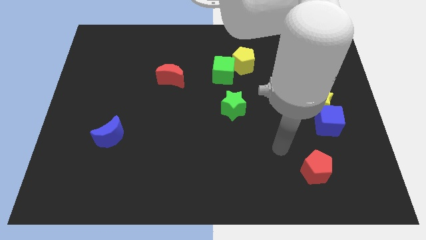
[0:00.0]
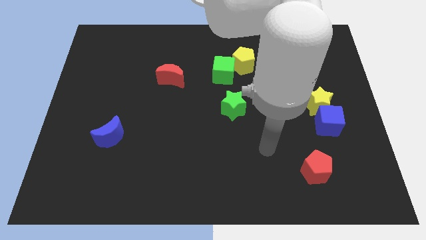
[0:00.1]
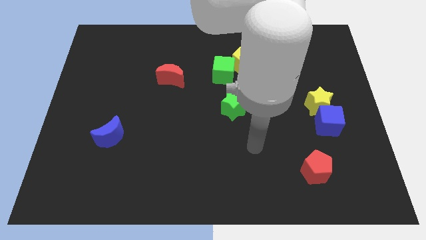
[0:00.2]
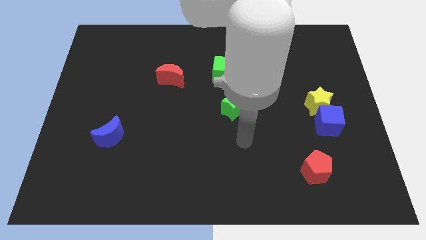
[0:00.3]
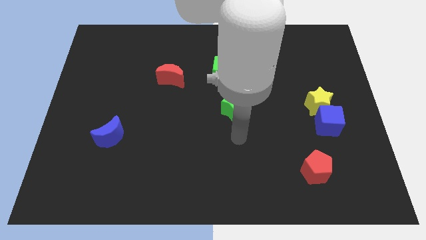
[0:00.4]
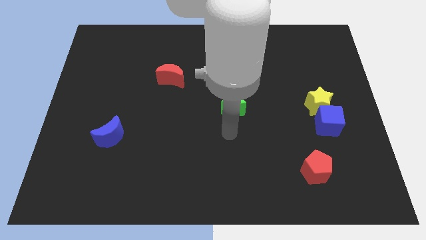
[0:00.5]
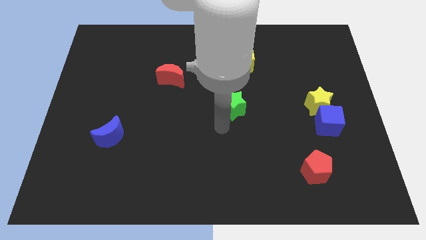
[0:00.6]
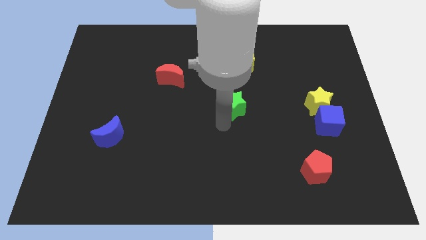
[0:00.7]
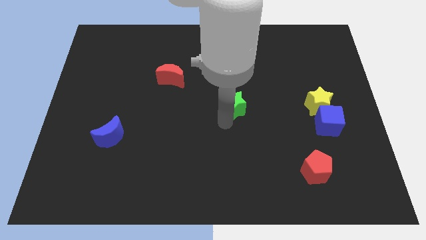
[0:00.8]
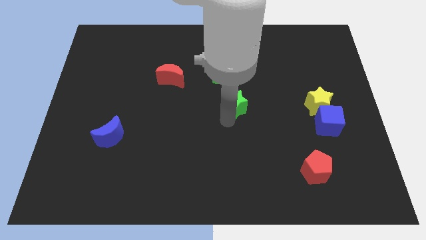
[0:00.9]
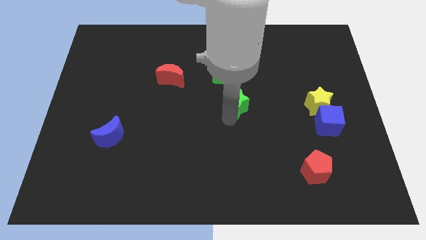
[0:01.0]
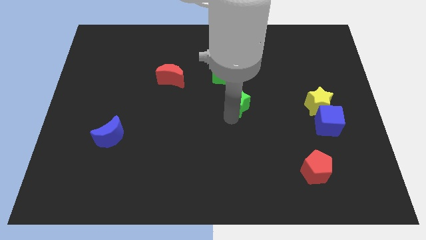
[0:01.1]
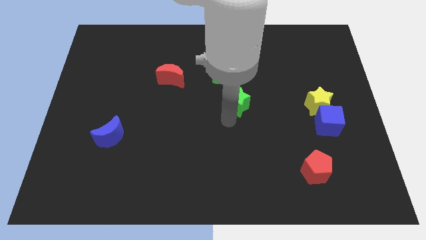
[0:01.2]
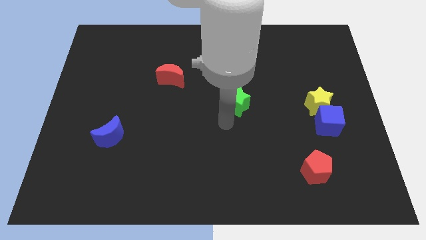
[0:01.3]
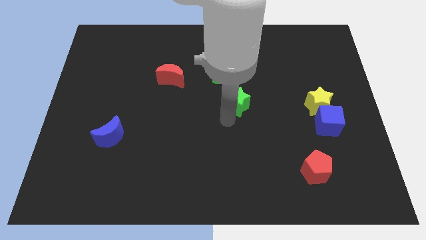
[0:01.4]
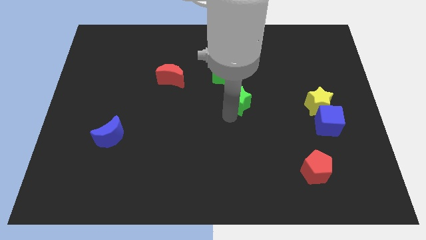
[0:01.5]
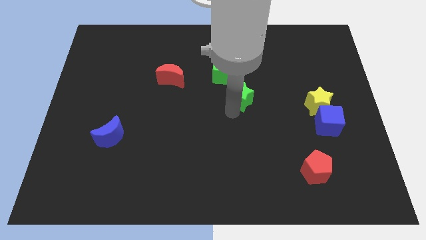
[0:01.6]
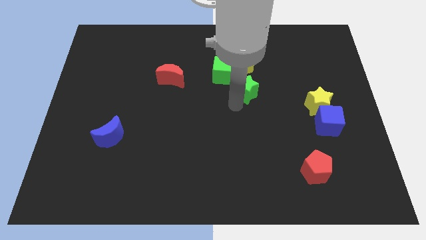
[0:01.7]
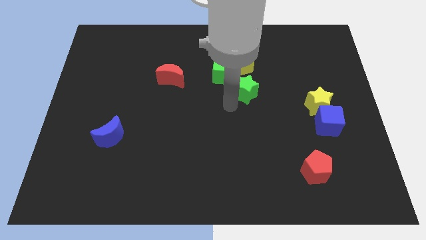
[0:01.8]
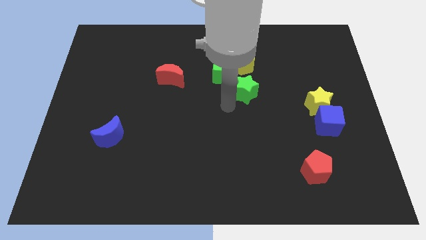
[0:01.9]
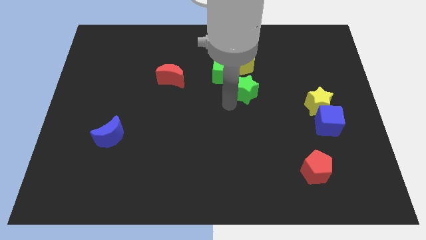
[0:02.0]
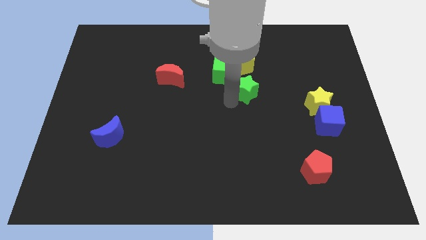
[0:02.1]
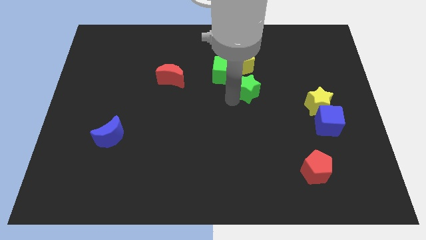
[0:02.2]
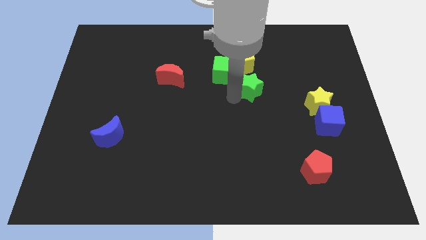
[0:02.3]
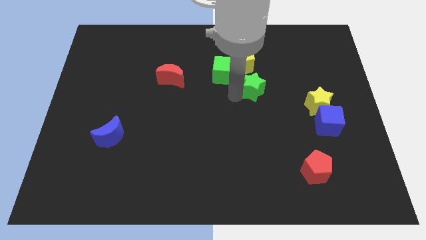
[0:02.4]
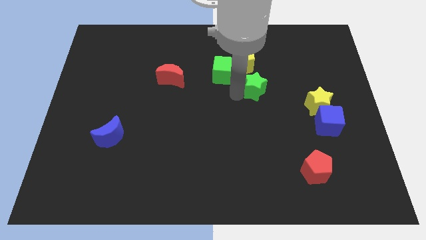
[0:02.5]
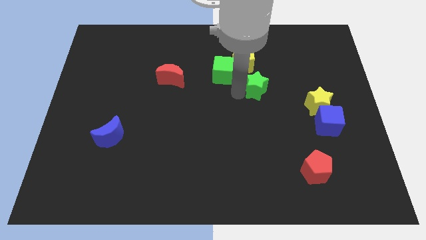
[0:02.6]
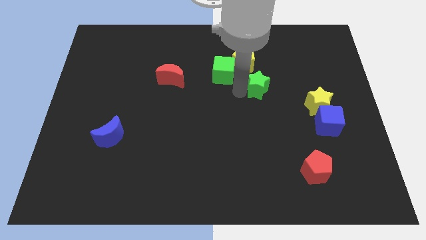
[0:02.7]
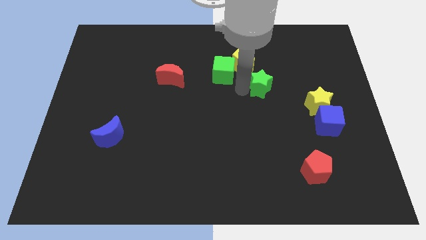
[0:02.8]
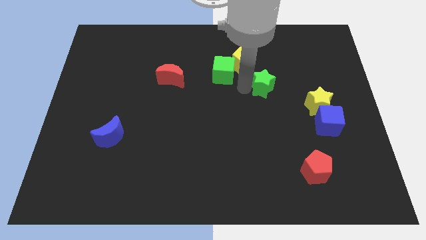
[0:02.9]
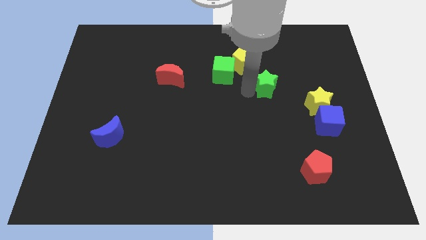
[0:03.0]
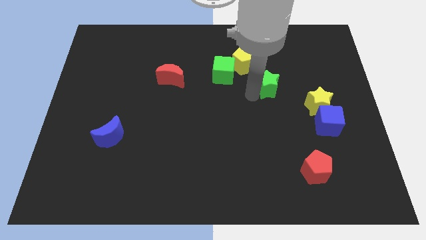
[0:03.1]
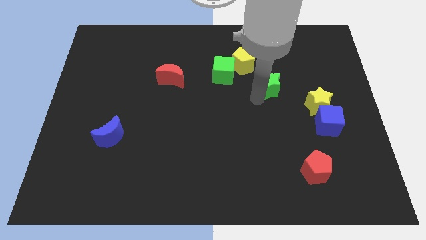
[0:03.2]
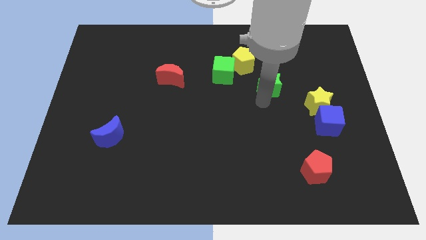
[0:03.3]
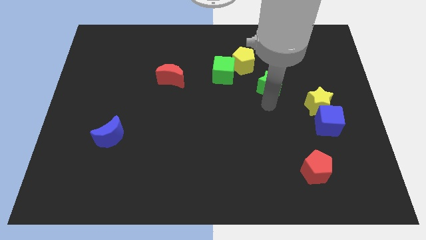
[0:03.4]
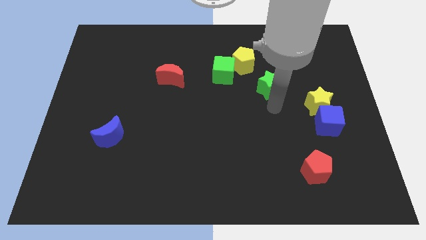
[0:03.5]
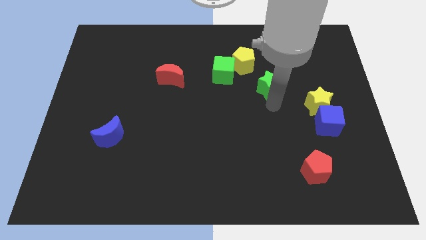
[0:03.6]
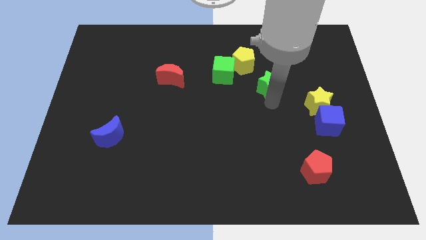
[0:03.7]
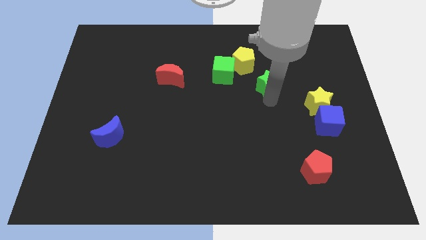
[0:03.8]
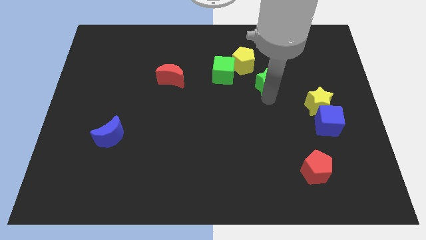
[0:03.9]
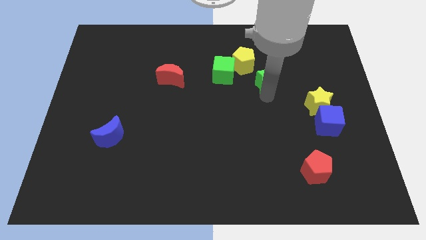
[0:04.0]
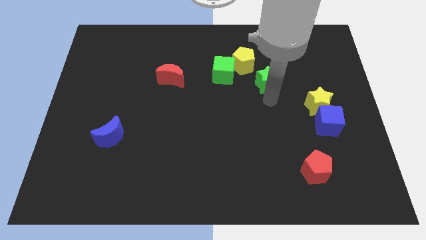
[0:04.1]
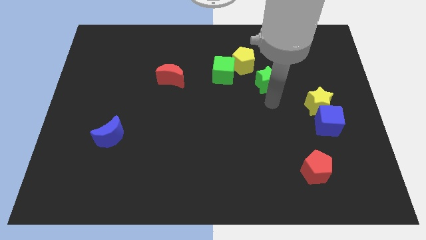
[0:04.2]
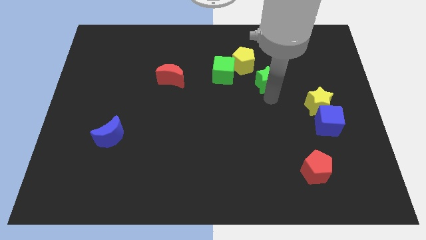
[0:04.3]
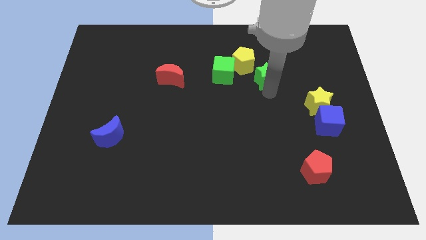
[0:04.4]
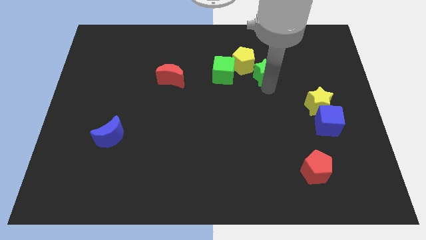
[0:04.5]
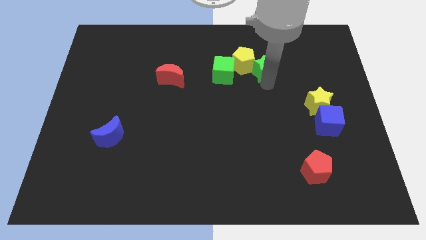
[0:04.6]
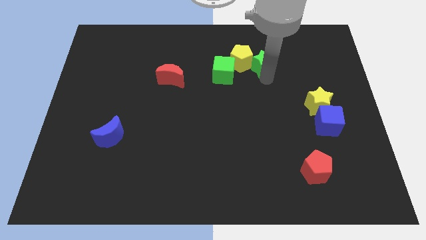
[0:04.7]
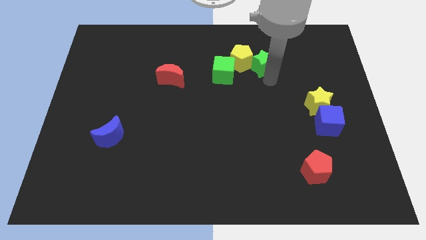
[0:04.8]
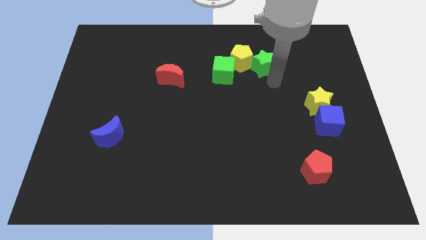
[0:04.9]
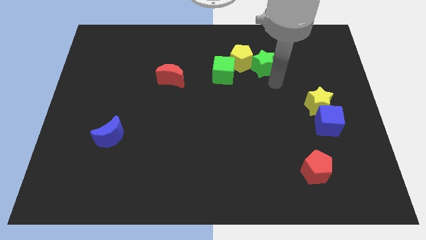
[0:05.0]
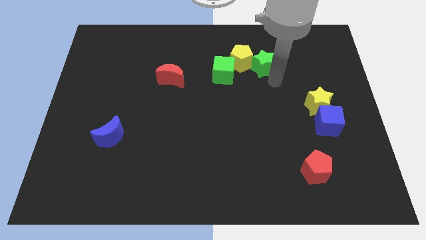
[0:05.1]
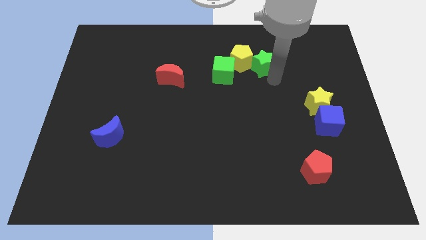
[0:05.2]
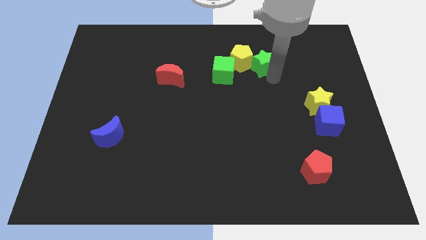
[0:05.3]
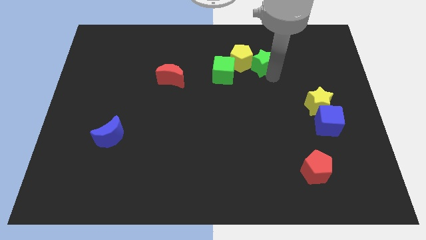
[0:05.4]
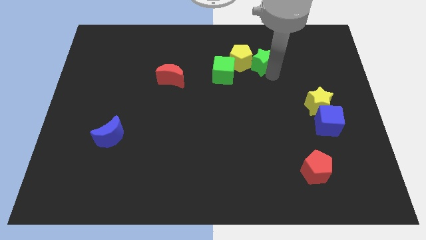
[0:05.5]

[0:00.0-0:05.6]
push the green star to the top right side of the green cube

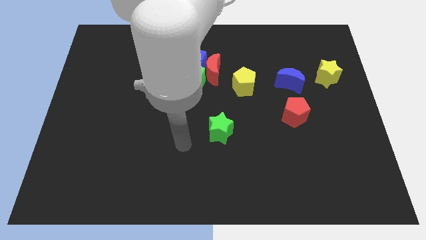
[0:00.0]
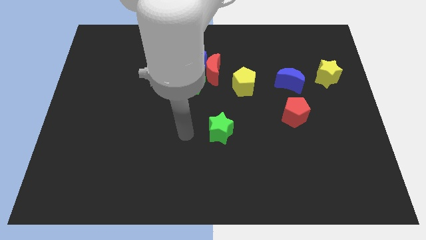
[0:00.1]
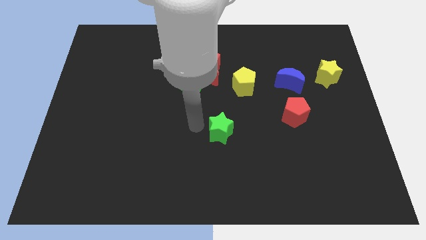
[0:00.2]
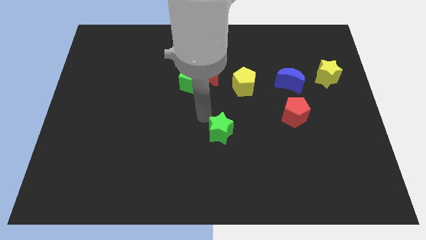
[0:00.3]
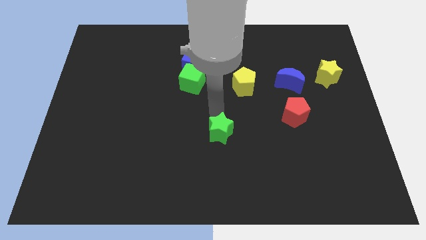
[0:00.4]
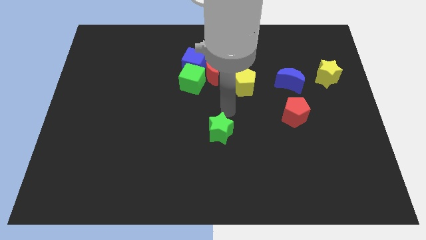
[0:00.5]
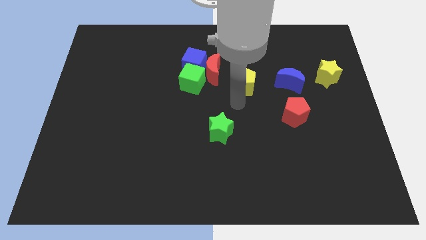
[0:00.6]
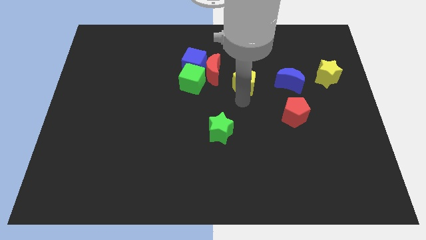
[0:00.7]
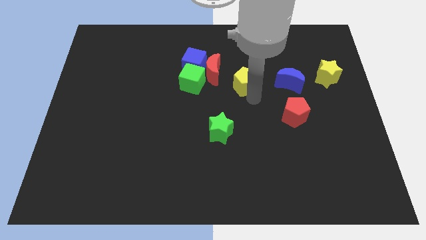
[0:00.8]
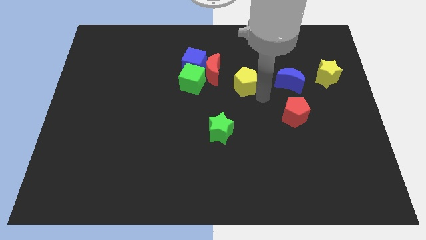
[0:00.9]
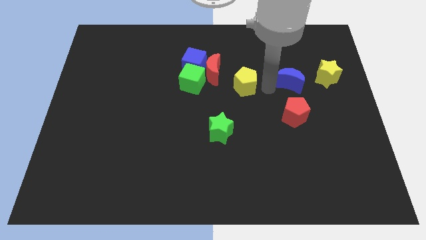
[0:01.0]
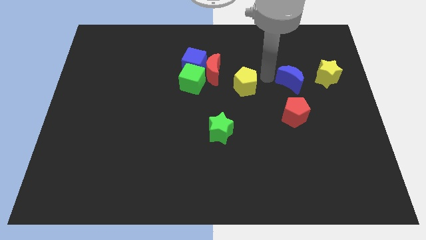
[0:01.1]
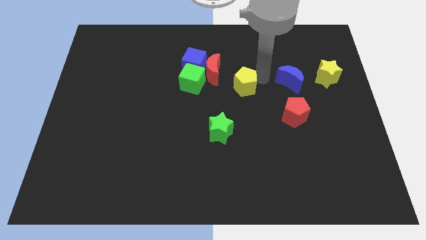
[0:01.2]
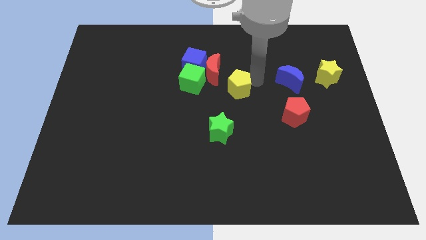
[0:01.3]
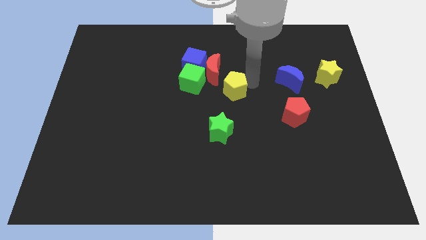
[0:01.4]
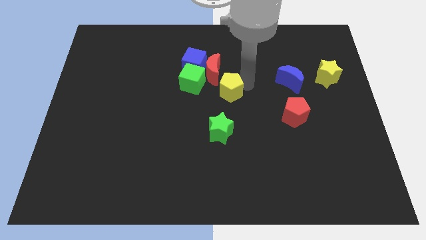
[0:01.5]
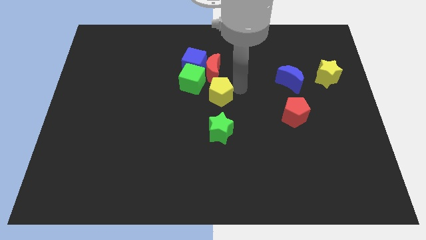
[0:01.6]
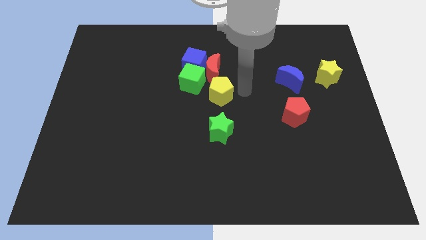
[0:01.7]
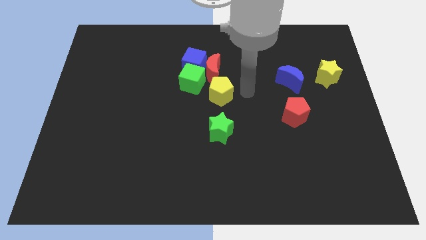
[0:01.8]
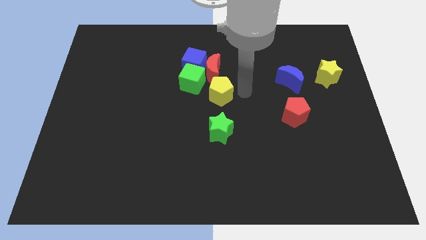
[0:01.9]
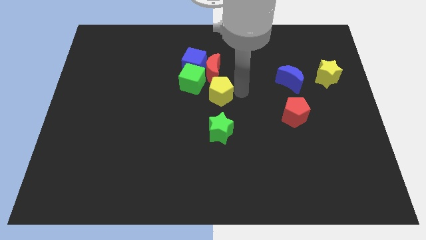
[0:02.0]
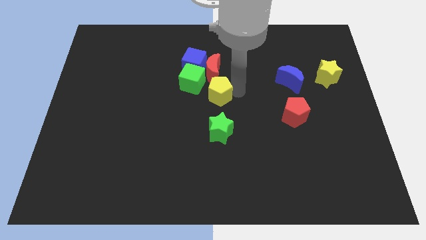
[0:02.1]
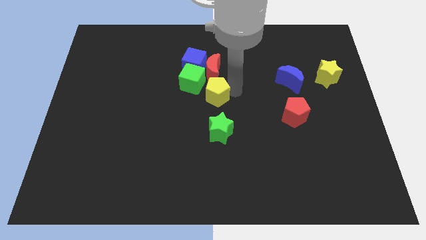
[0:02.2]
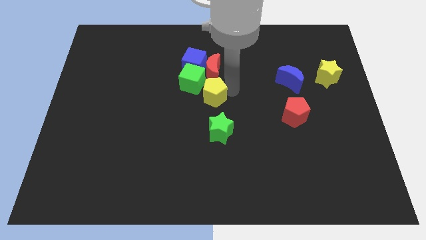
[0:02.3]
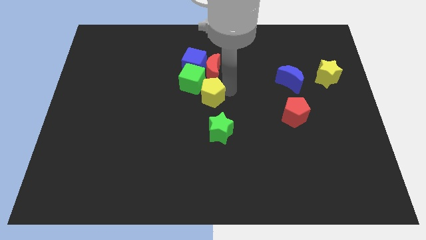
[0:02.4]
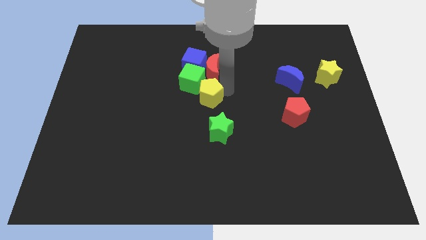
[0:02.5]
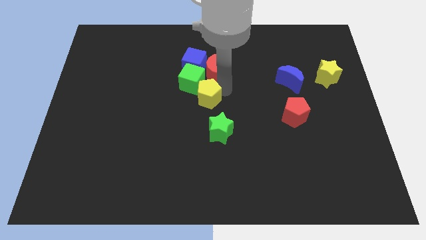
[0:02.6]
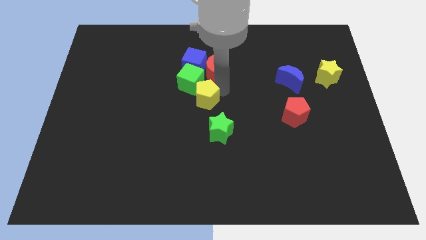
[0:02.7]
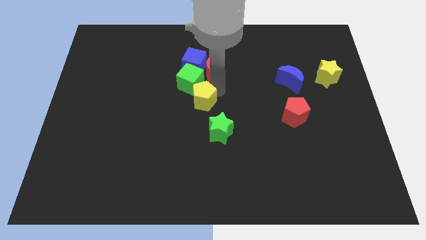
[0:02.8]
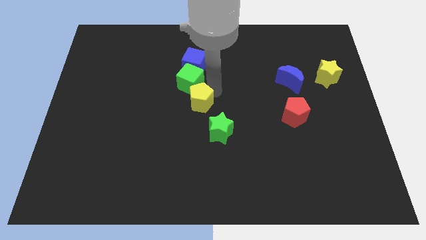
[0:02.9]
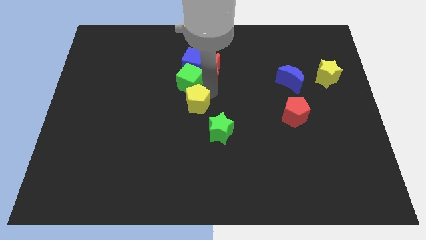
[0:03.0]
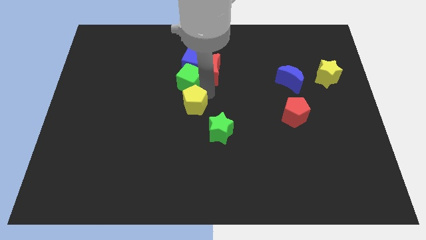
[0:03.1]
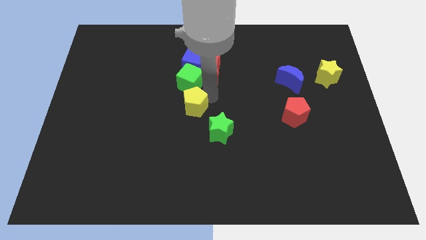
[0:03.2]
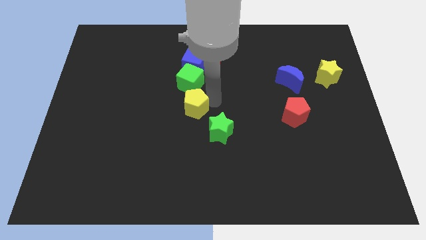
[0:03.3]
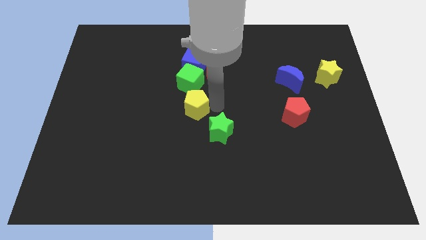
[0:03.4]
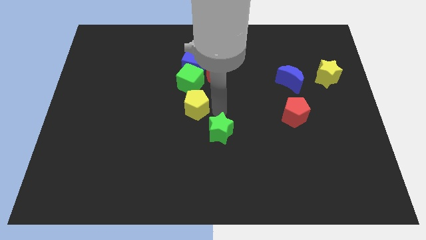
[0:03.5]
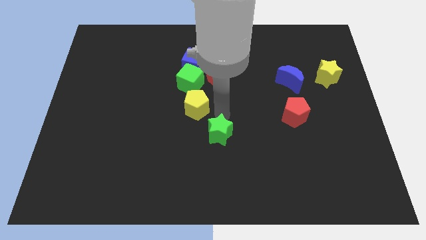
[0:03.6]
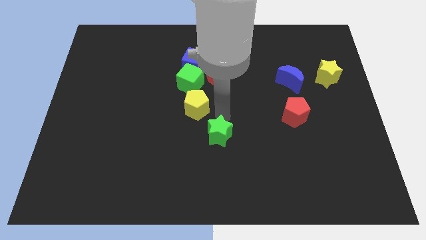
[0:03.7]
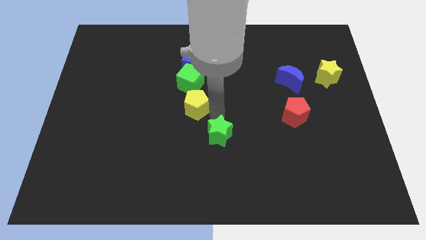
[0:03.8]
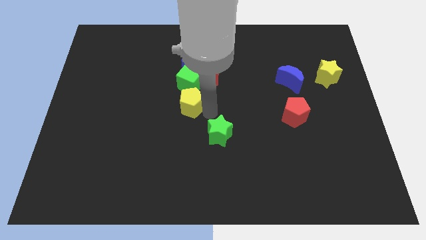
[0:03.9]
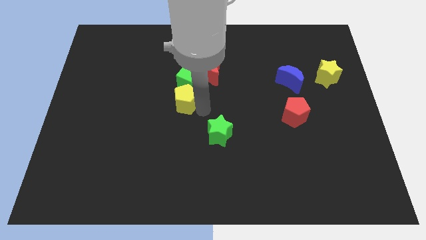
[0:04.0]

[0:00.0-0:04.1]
put the yellow pentagon to the bottom left of the green cube
